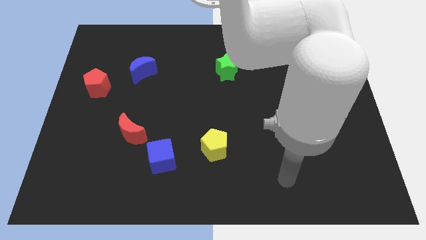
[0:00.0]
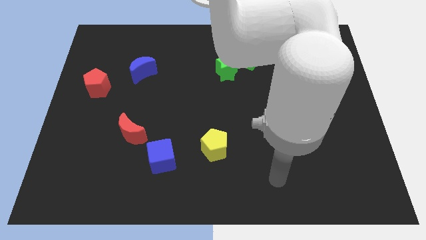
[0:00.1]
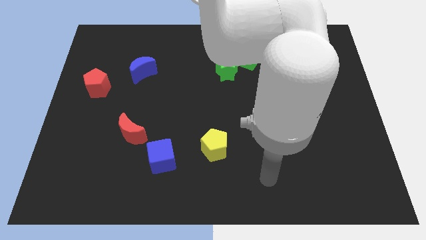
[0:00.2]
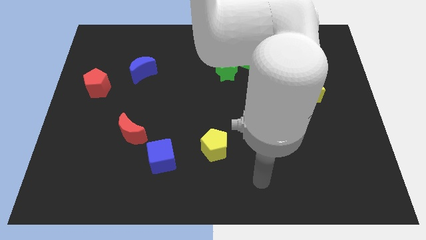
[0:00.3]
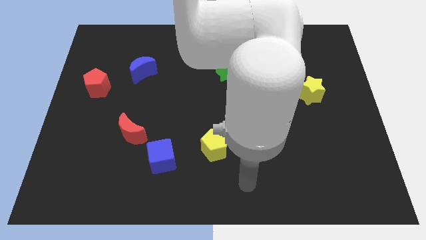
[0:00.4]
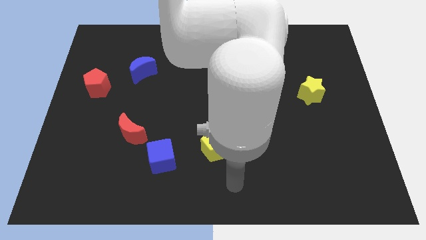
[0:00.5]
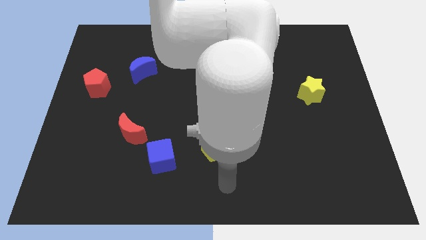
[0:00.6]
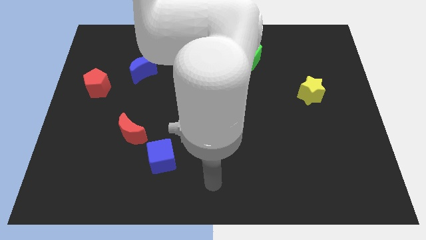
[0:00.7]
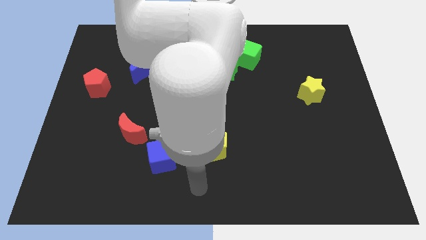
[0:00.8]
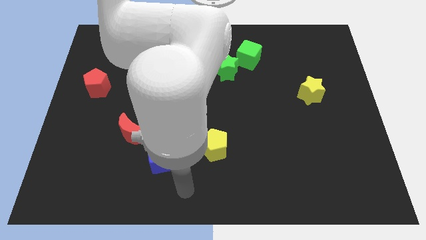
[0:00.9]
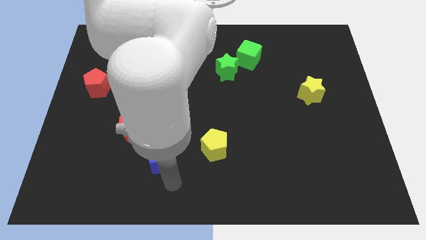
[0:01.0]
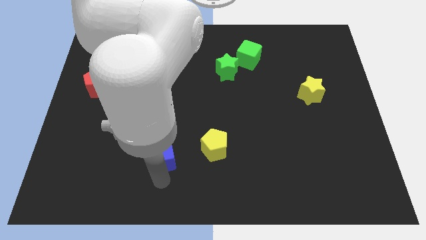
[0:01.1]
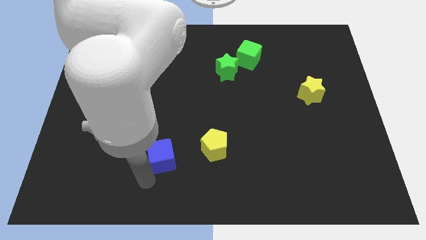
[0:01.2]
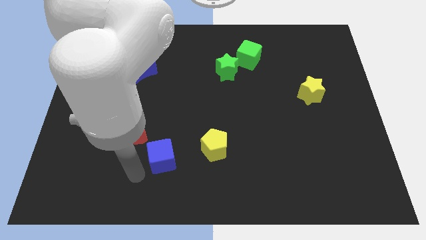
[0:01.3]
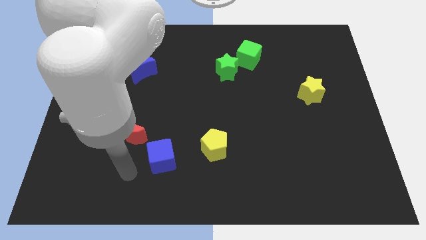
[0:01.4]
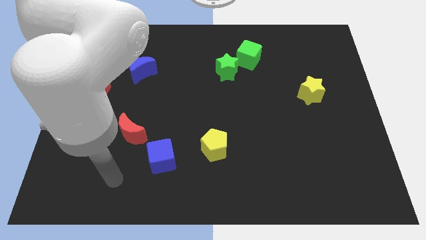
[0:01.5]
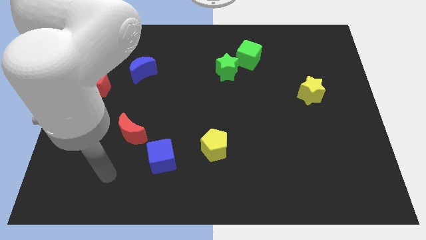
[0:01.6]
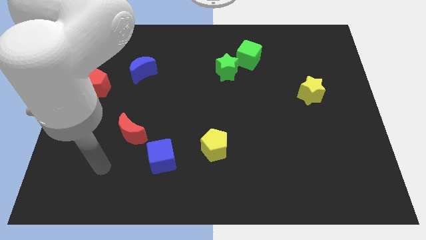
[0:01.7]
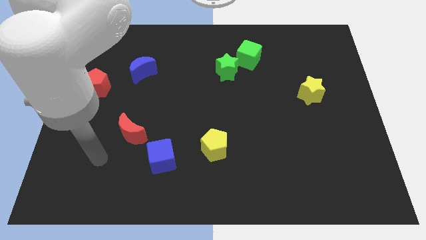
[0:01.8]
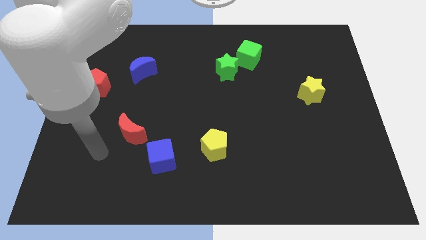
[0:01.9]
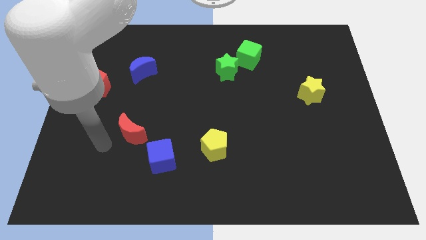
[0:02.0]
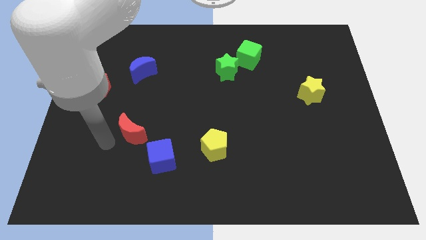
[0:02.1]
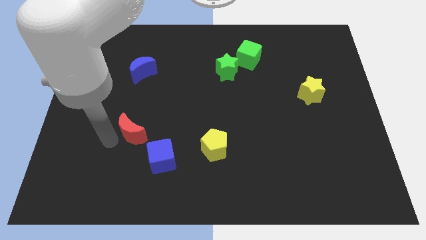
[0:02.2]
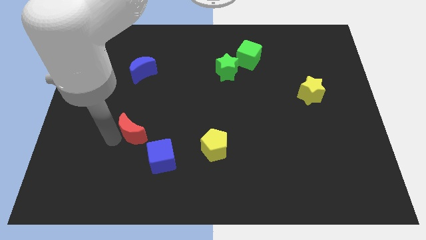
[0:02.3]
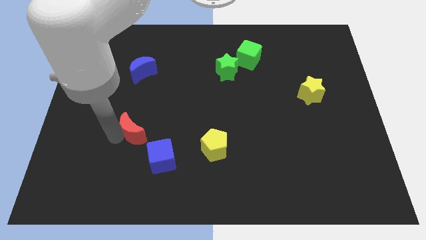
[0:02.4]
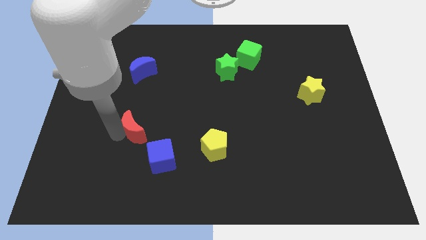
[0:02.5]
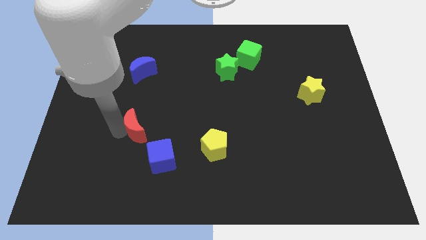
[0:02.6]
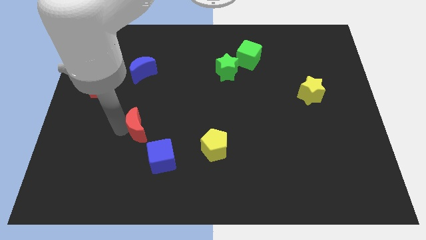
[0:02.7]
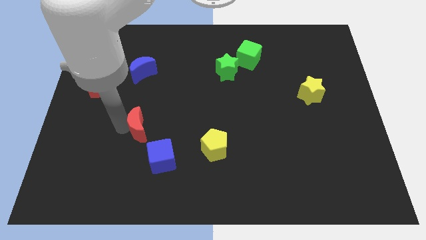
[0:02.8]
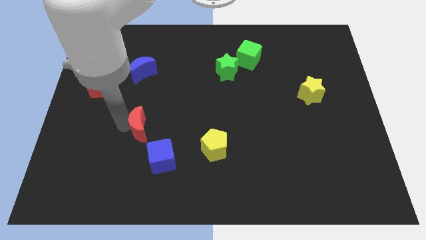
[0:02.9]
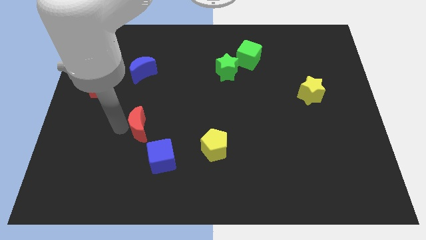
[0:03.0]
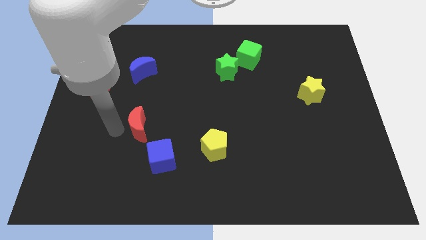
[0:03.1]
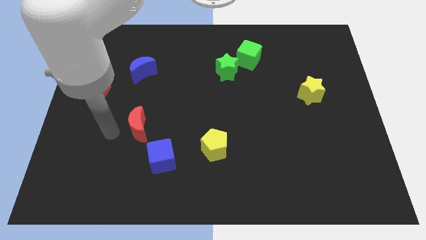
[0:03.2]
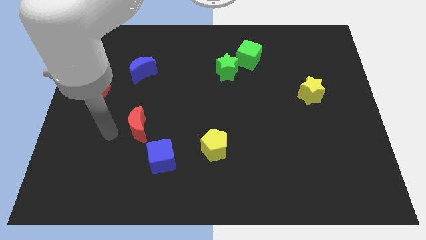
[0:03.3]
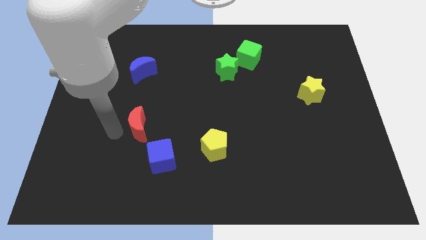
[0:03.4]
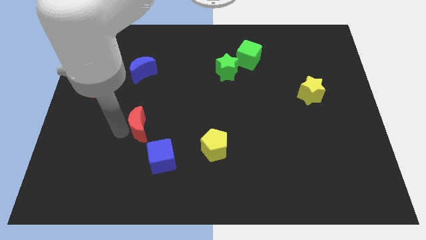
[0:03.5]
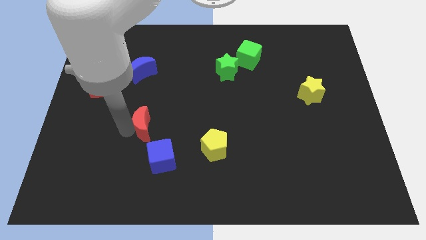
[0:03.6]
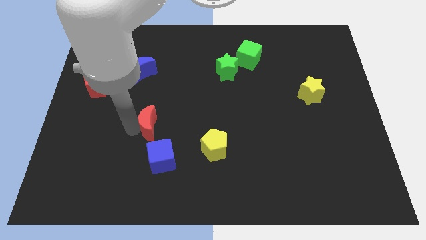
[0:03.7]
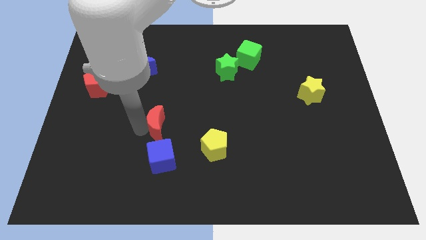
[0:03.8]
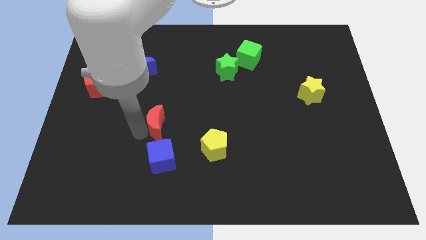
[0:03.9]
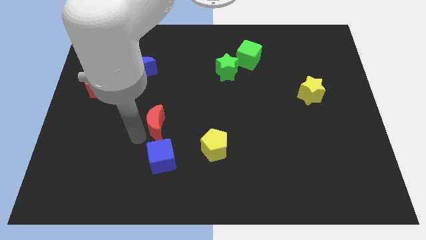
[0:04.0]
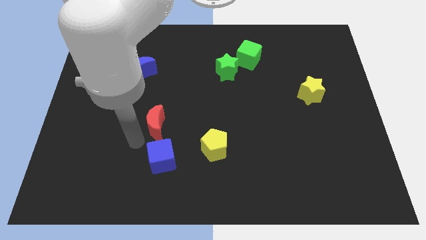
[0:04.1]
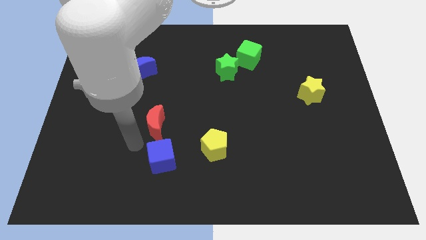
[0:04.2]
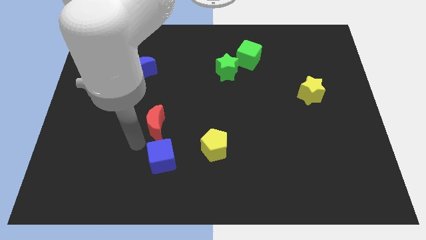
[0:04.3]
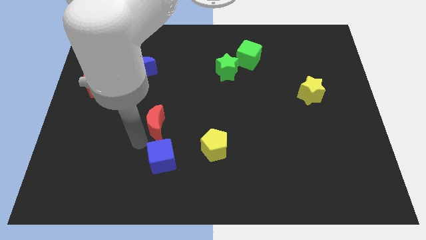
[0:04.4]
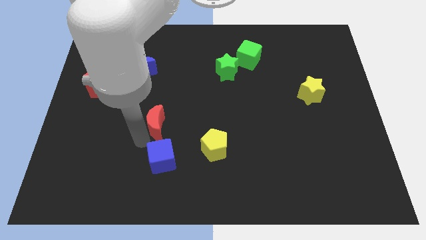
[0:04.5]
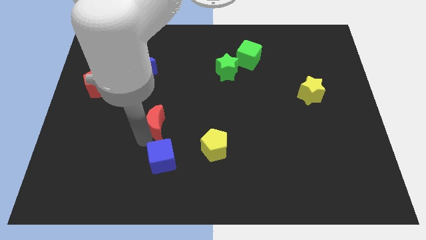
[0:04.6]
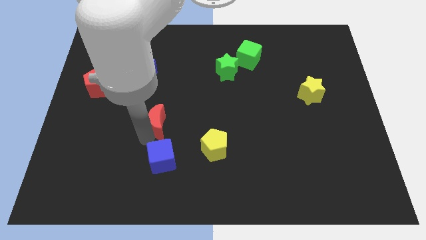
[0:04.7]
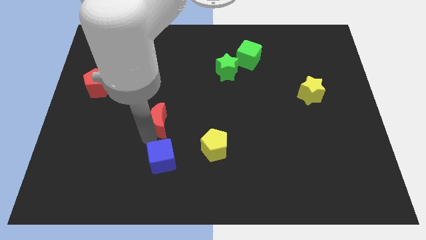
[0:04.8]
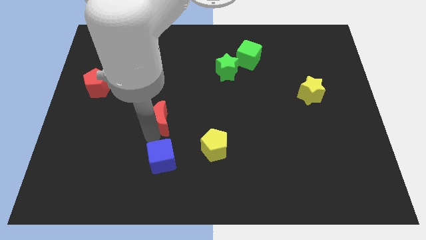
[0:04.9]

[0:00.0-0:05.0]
slide the red moon somewhat upwards and right diagonally

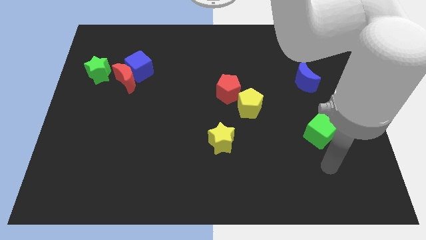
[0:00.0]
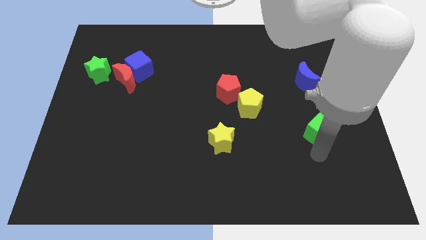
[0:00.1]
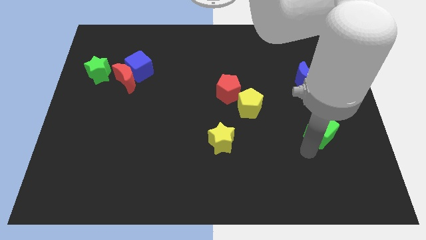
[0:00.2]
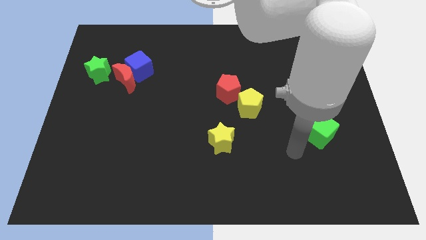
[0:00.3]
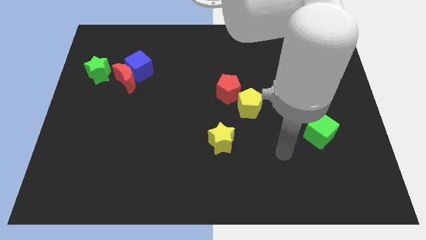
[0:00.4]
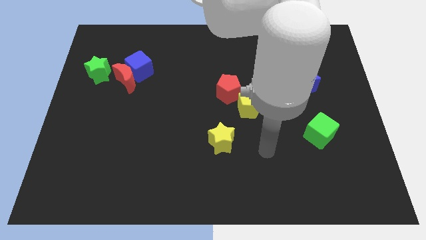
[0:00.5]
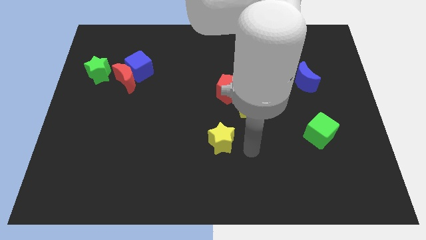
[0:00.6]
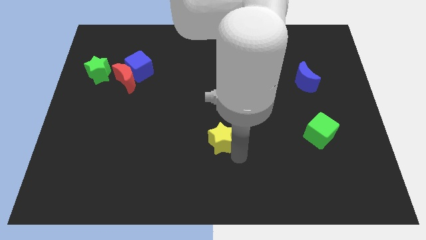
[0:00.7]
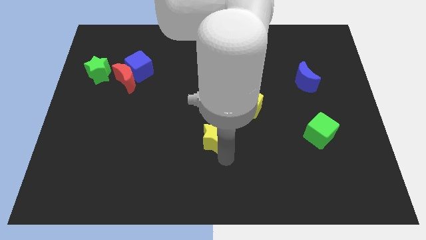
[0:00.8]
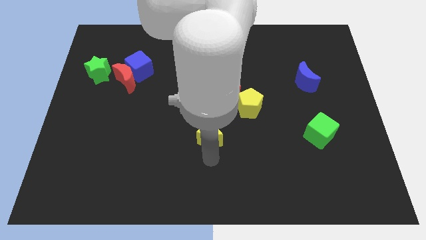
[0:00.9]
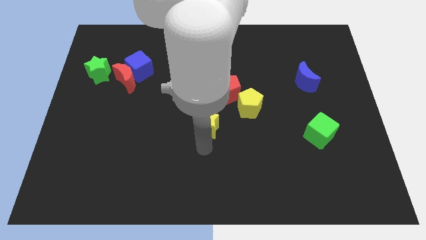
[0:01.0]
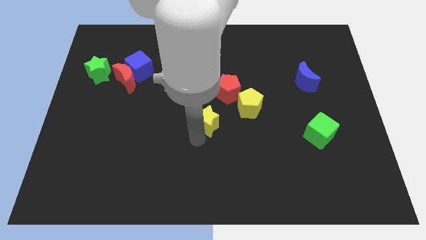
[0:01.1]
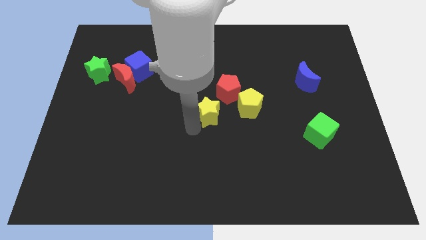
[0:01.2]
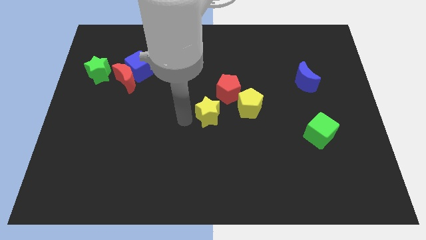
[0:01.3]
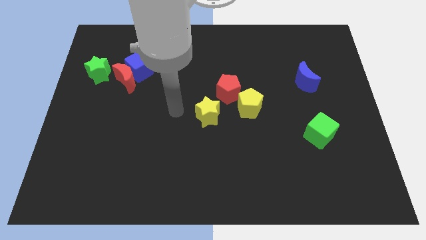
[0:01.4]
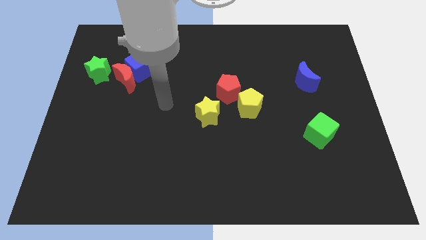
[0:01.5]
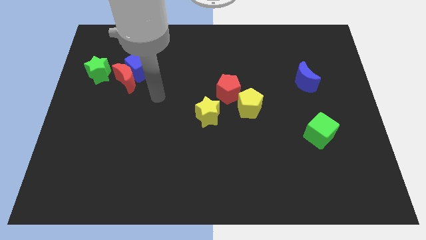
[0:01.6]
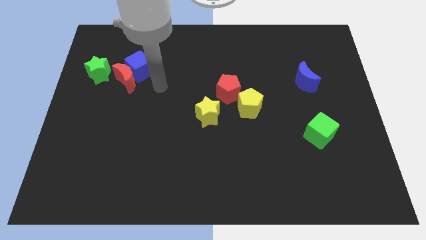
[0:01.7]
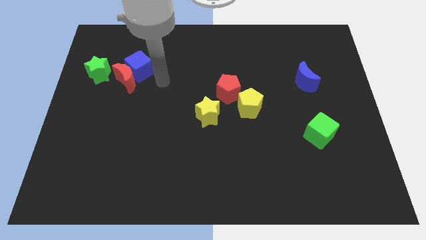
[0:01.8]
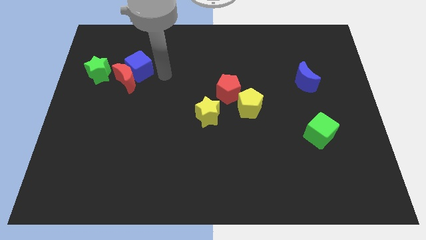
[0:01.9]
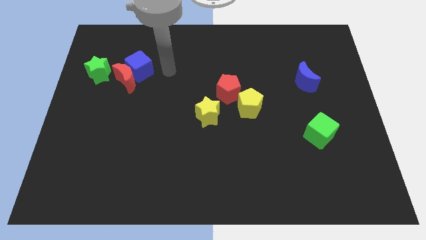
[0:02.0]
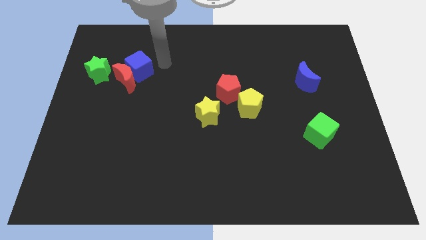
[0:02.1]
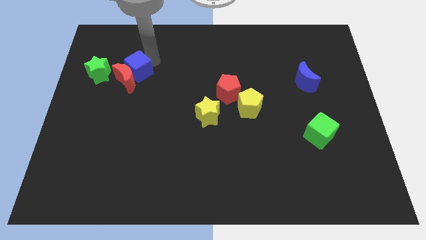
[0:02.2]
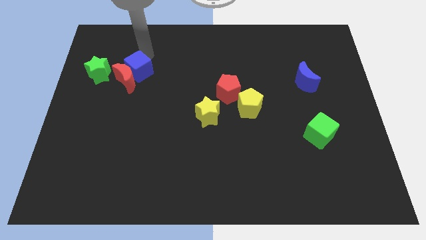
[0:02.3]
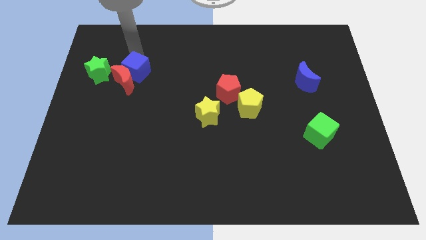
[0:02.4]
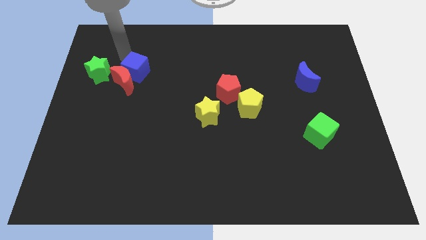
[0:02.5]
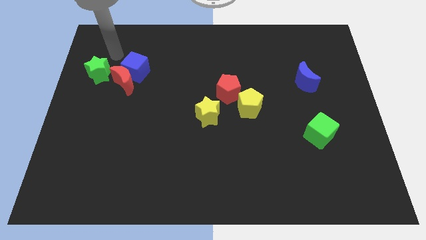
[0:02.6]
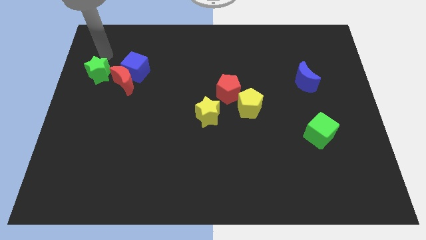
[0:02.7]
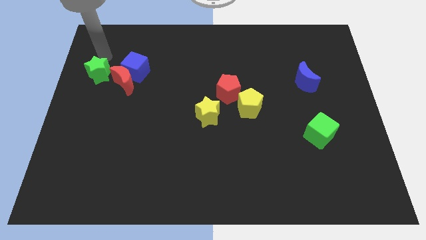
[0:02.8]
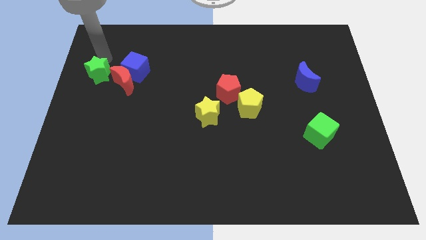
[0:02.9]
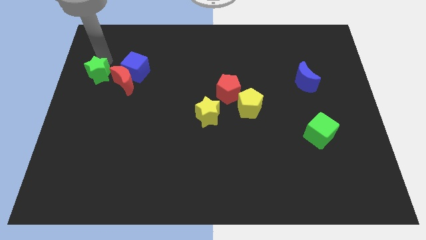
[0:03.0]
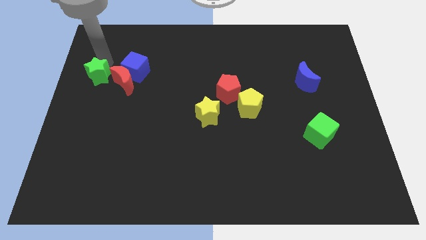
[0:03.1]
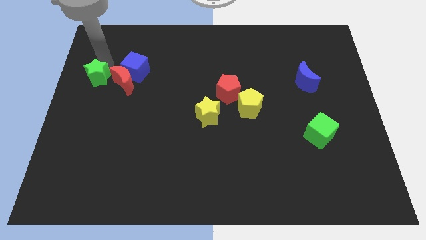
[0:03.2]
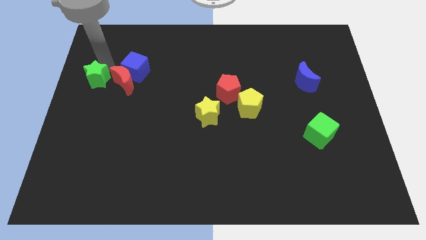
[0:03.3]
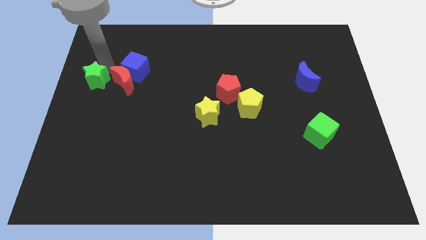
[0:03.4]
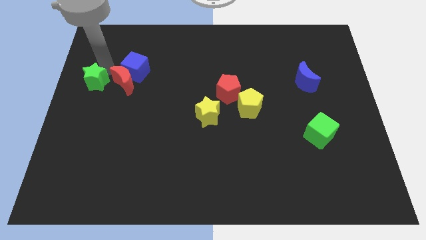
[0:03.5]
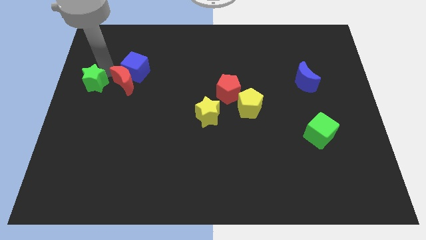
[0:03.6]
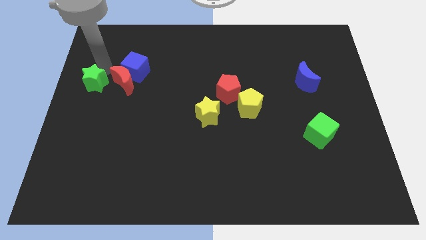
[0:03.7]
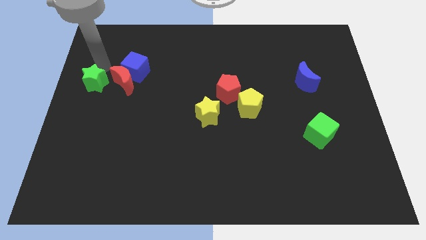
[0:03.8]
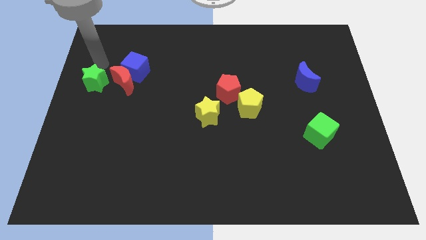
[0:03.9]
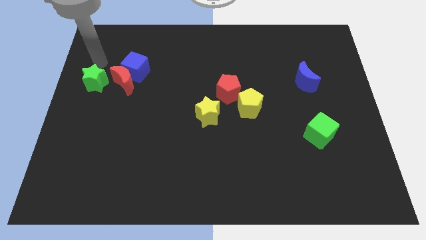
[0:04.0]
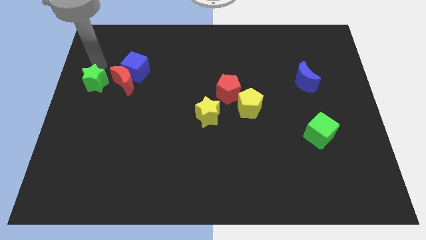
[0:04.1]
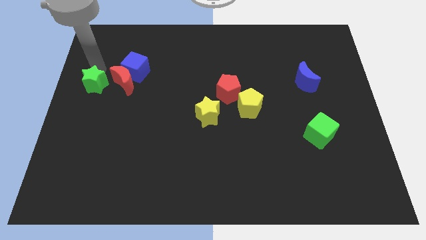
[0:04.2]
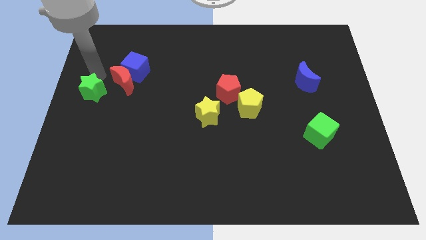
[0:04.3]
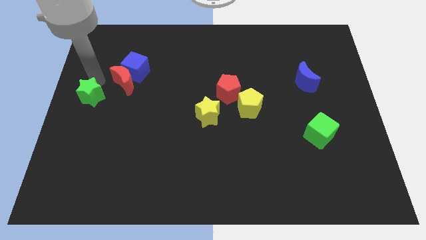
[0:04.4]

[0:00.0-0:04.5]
slide the green star a little bit down
